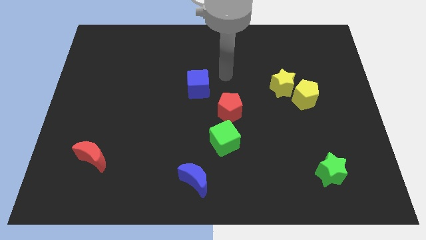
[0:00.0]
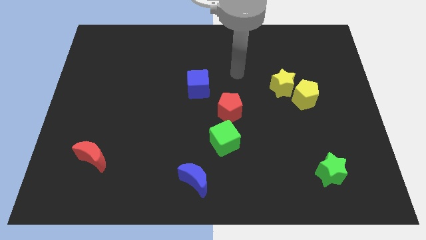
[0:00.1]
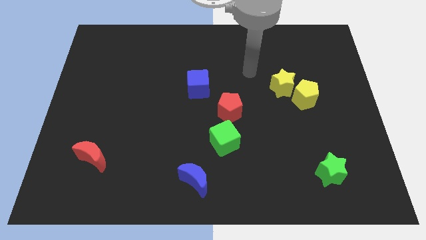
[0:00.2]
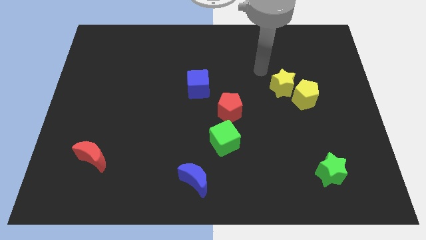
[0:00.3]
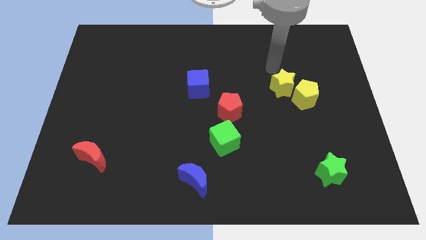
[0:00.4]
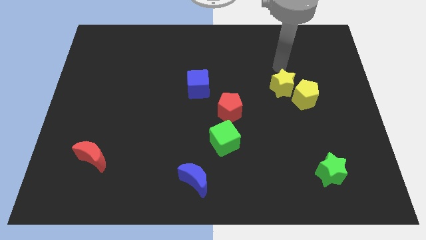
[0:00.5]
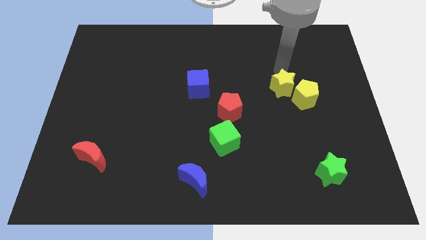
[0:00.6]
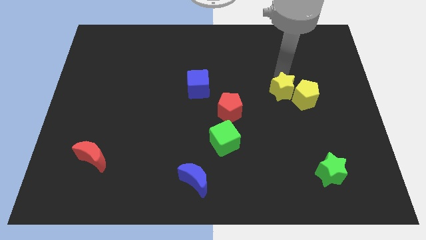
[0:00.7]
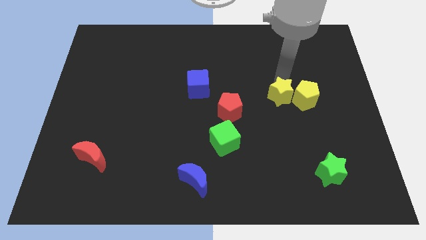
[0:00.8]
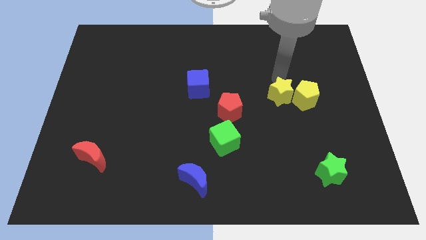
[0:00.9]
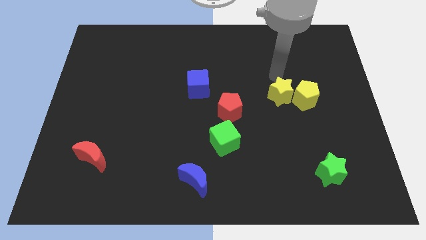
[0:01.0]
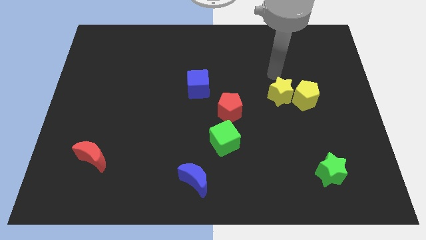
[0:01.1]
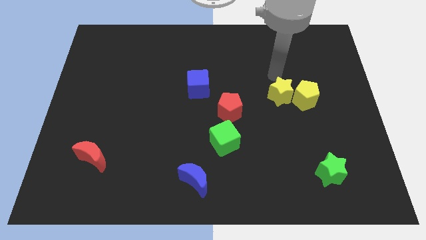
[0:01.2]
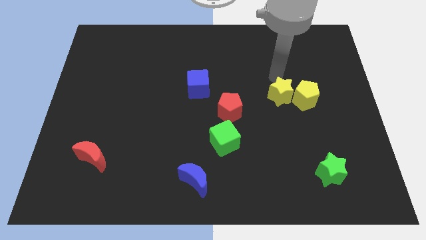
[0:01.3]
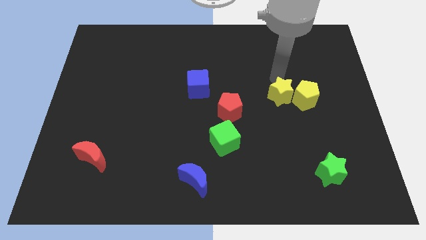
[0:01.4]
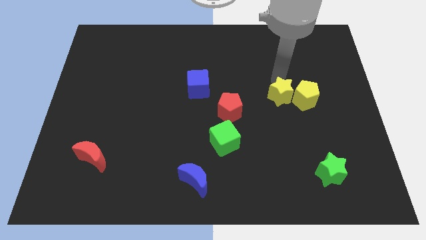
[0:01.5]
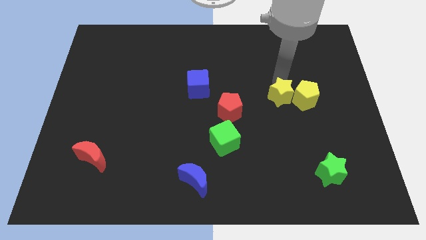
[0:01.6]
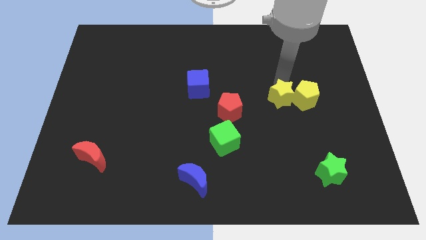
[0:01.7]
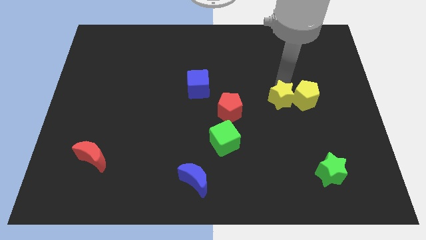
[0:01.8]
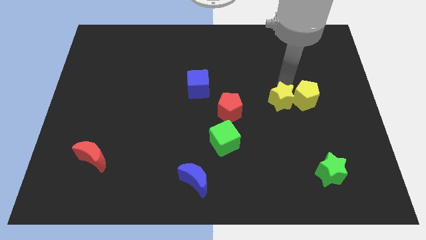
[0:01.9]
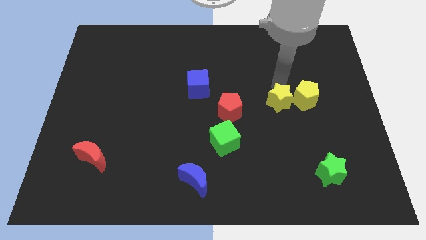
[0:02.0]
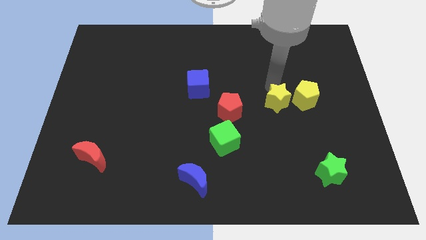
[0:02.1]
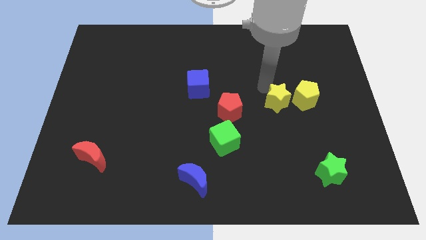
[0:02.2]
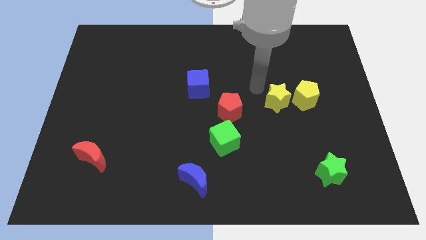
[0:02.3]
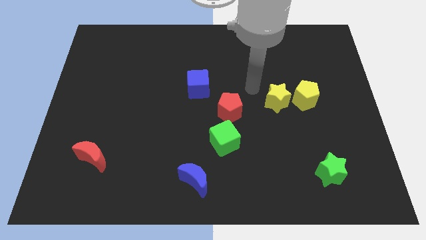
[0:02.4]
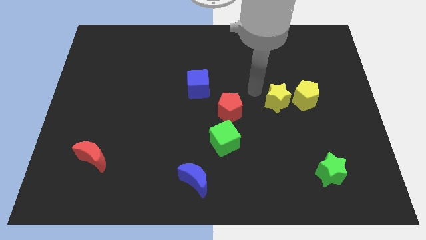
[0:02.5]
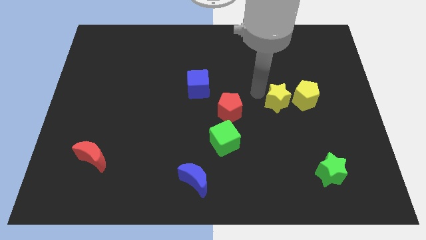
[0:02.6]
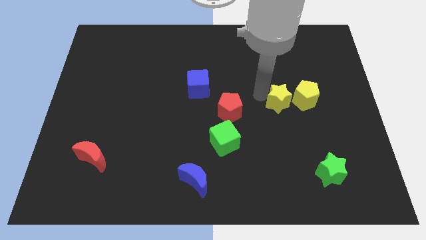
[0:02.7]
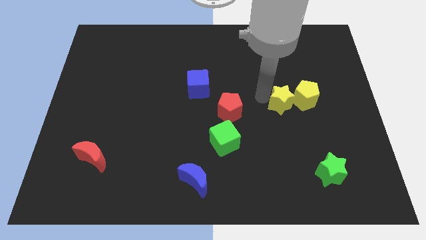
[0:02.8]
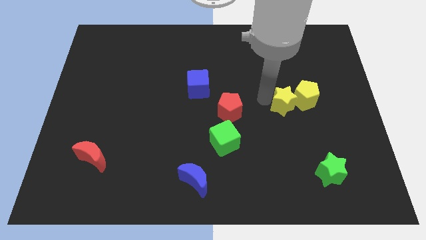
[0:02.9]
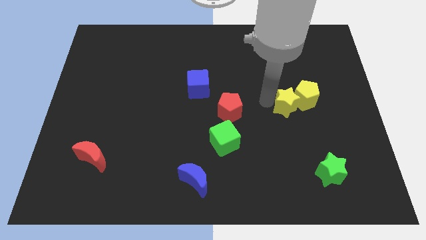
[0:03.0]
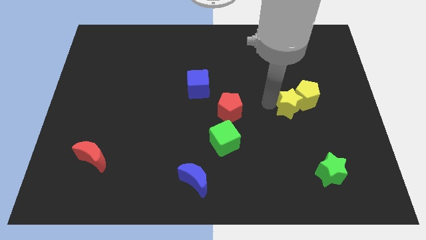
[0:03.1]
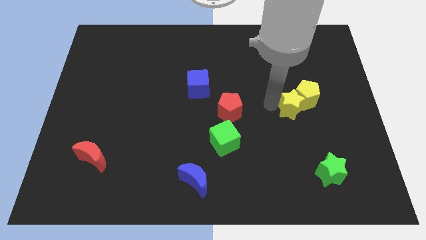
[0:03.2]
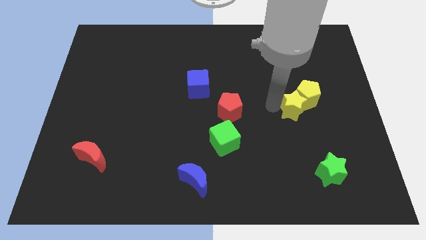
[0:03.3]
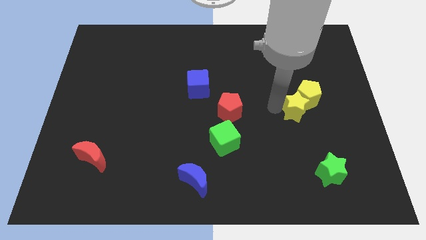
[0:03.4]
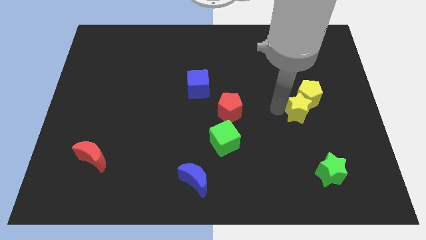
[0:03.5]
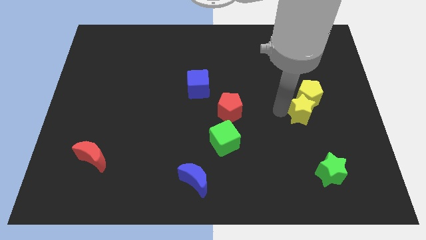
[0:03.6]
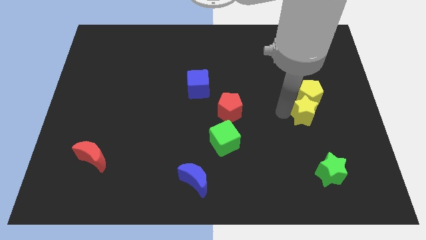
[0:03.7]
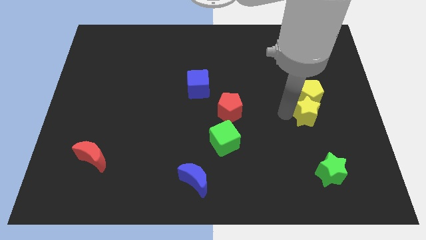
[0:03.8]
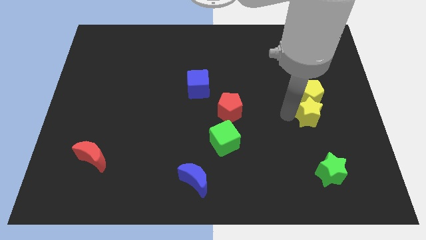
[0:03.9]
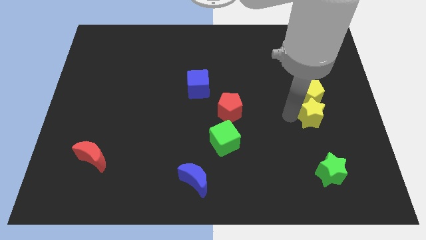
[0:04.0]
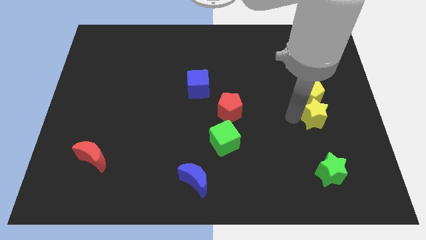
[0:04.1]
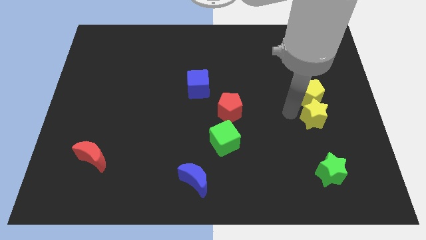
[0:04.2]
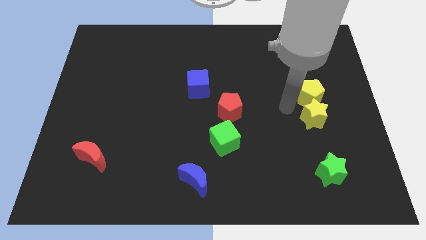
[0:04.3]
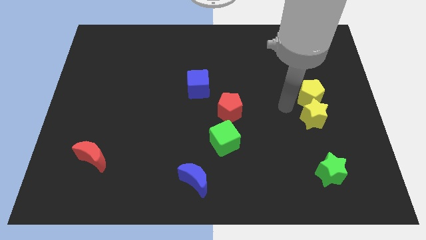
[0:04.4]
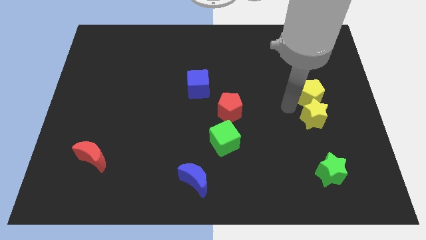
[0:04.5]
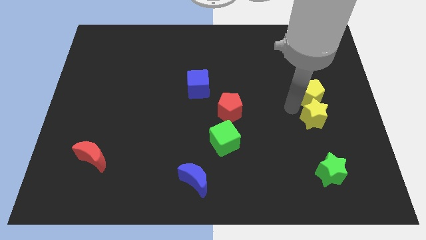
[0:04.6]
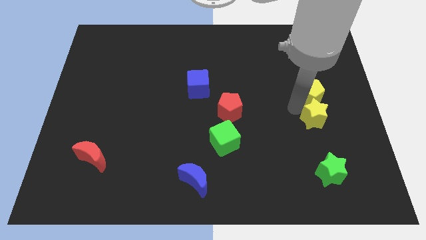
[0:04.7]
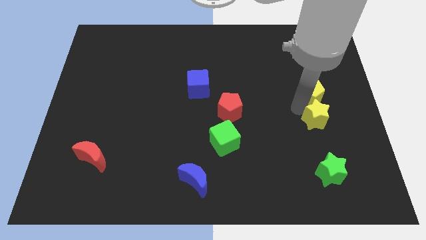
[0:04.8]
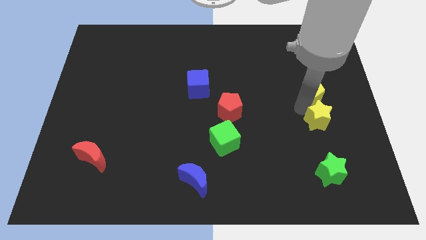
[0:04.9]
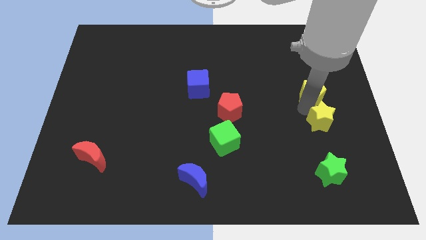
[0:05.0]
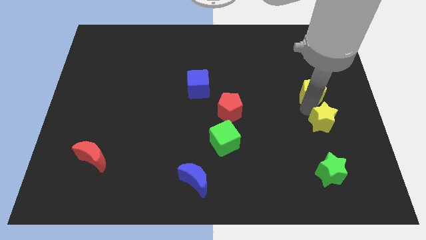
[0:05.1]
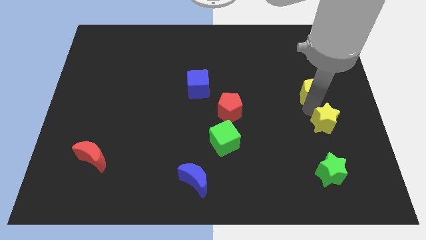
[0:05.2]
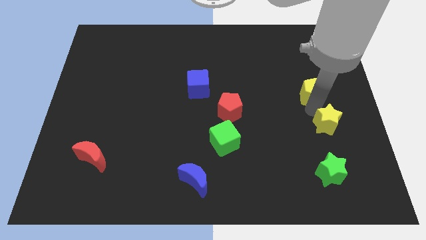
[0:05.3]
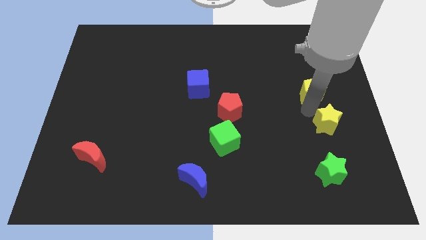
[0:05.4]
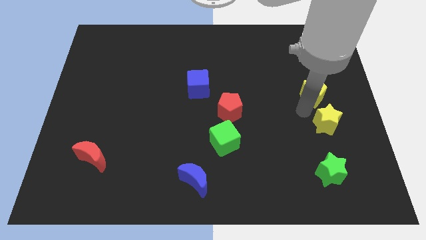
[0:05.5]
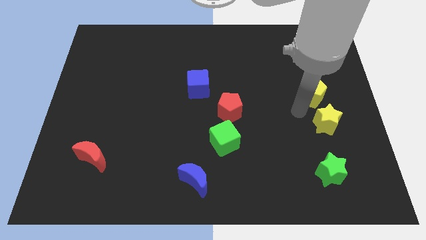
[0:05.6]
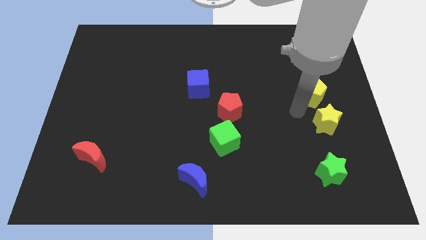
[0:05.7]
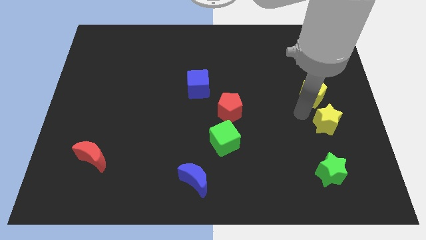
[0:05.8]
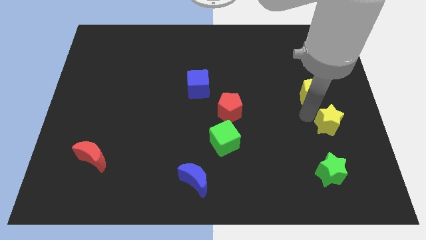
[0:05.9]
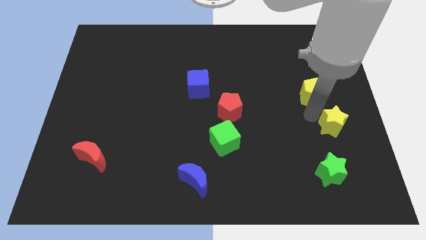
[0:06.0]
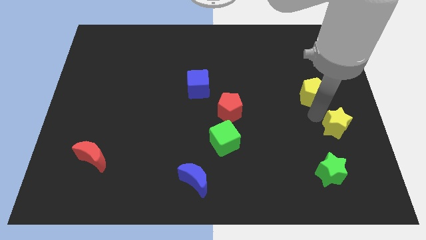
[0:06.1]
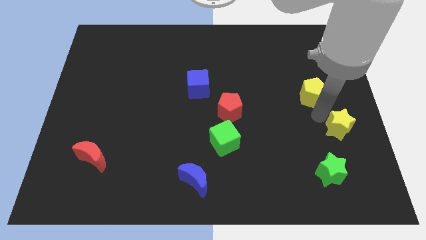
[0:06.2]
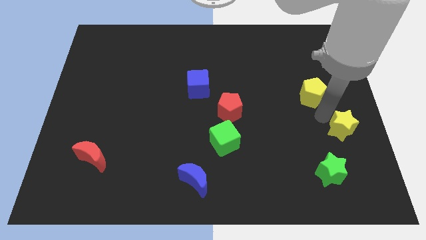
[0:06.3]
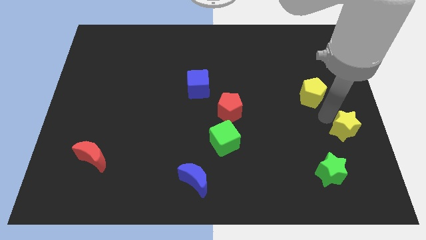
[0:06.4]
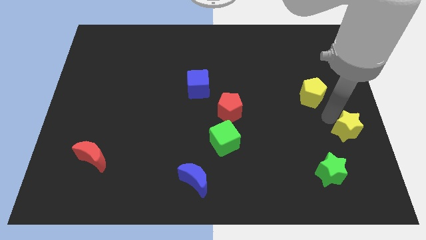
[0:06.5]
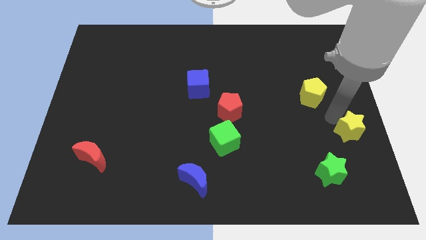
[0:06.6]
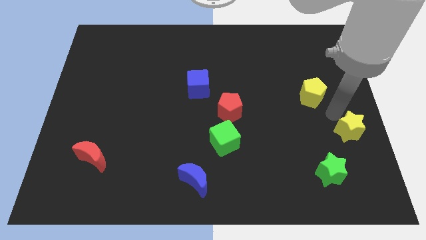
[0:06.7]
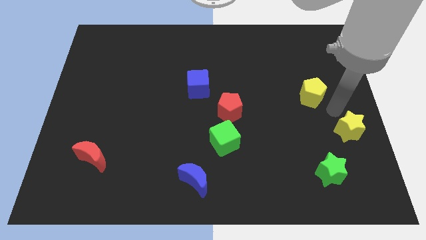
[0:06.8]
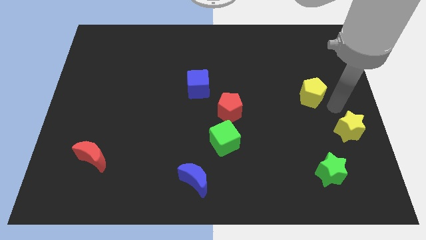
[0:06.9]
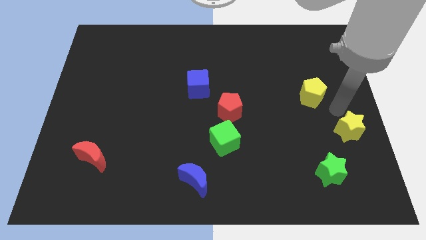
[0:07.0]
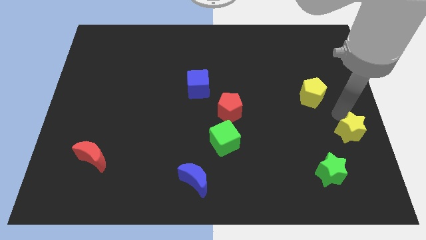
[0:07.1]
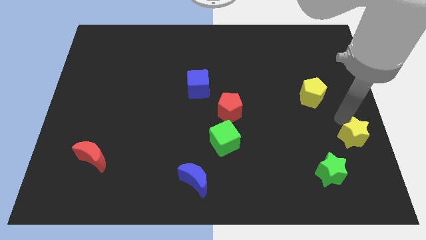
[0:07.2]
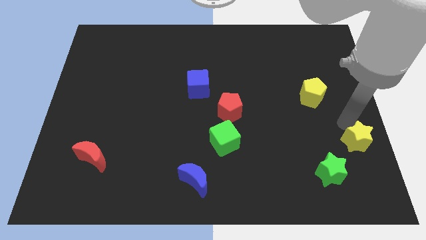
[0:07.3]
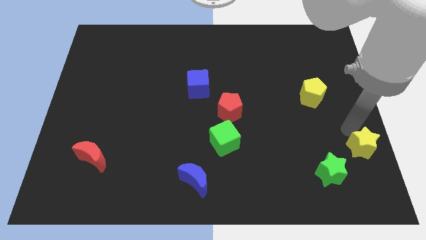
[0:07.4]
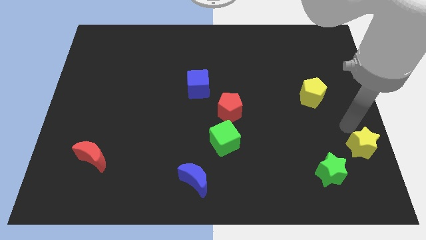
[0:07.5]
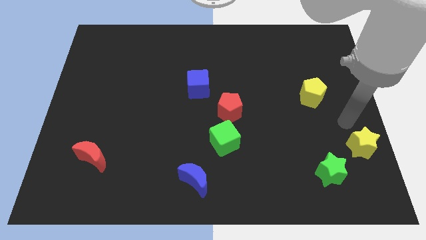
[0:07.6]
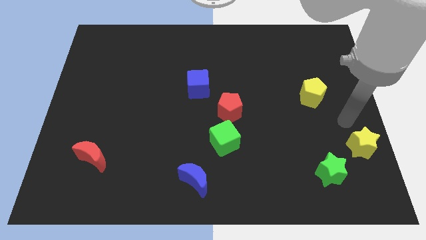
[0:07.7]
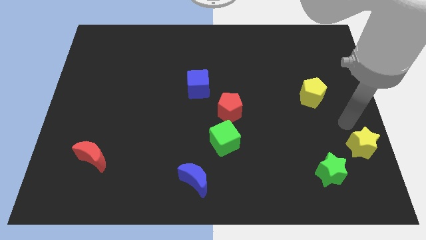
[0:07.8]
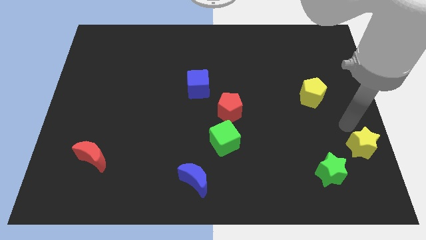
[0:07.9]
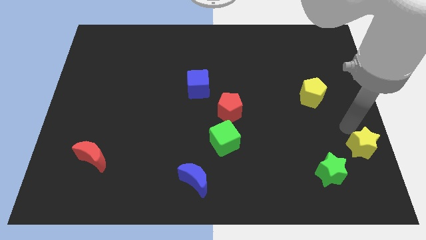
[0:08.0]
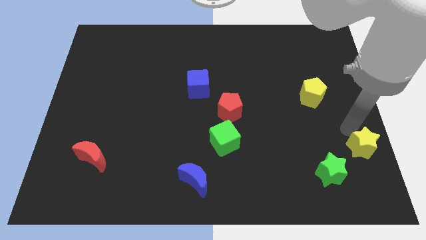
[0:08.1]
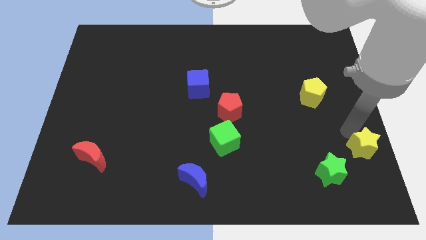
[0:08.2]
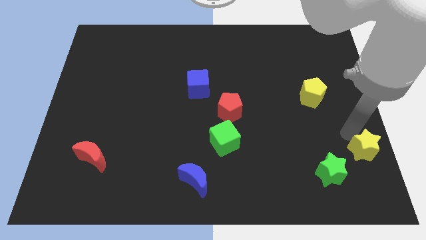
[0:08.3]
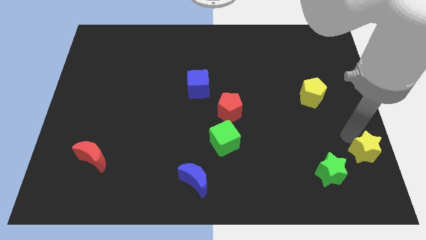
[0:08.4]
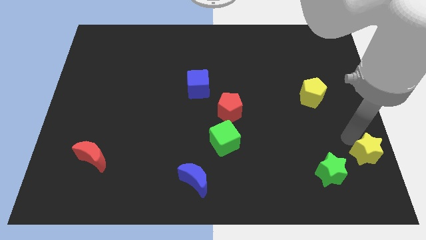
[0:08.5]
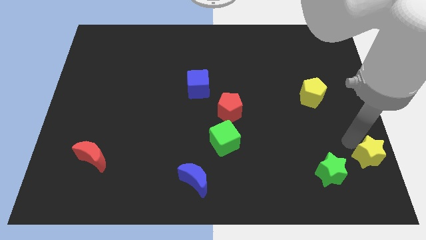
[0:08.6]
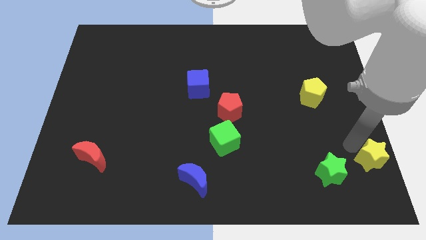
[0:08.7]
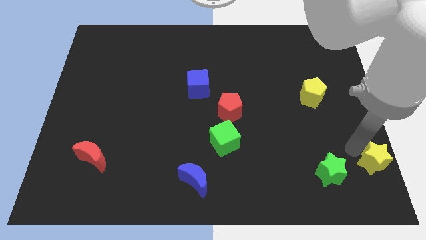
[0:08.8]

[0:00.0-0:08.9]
move the yellow star to the bottom right of the board
